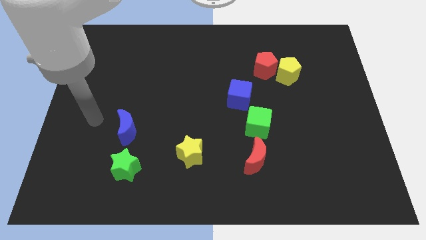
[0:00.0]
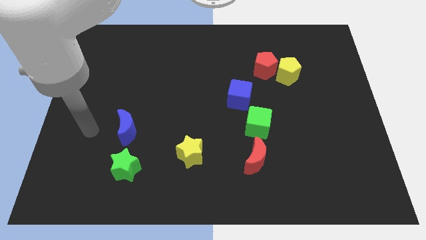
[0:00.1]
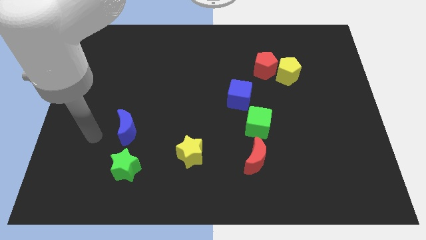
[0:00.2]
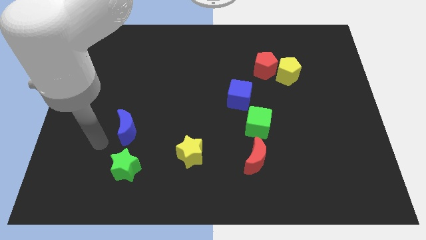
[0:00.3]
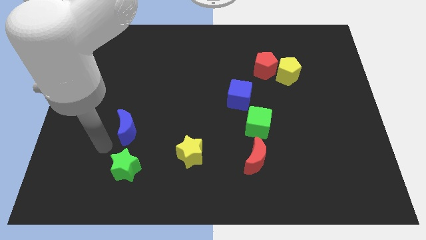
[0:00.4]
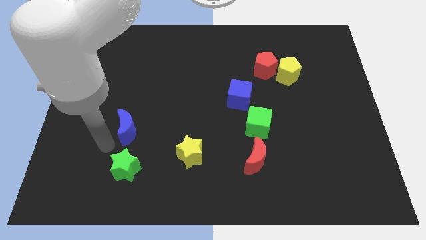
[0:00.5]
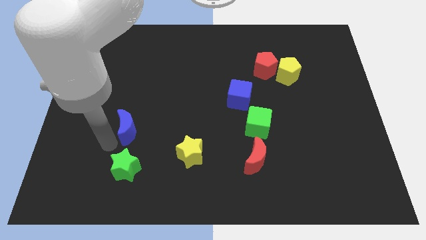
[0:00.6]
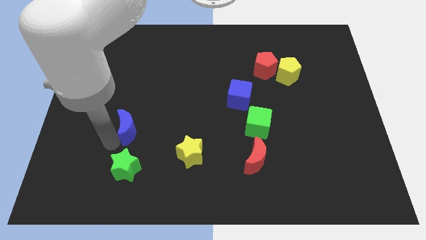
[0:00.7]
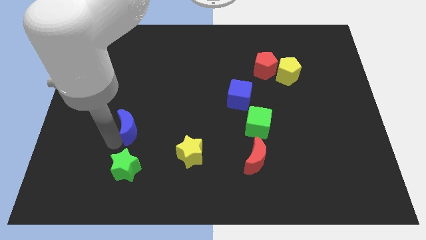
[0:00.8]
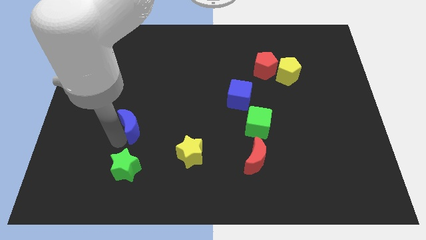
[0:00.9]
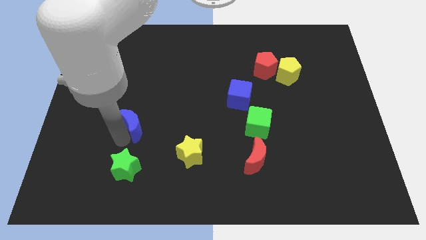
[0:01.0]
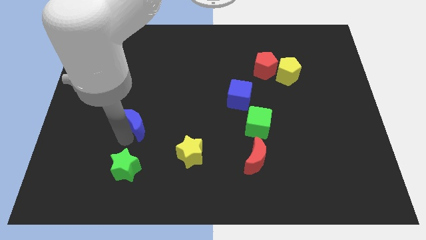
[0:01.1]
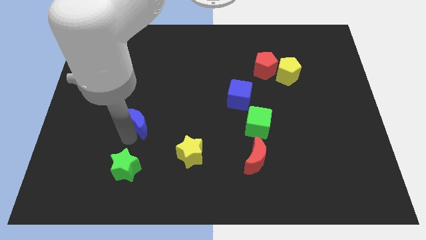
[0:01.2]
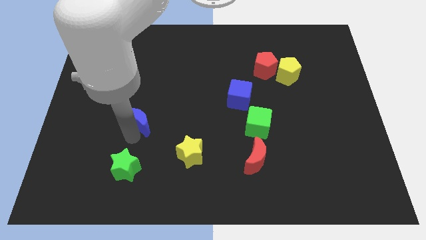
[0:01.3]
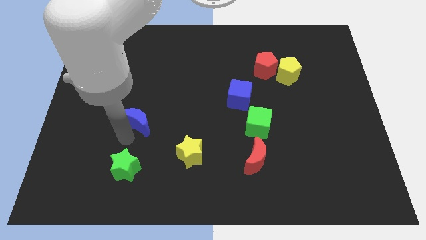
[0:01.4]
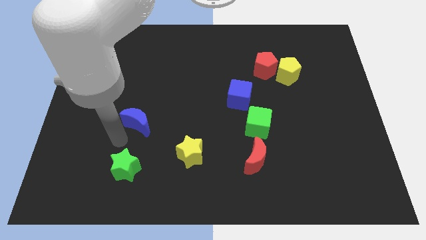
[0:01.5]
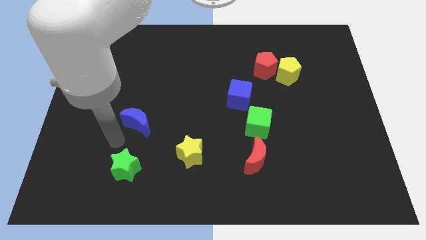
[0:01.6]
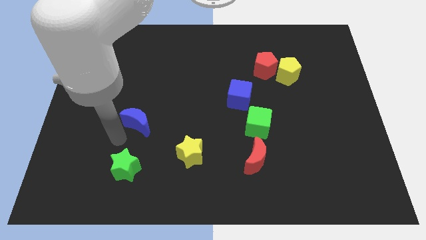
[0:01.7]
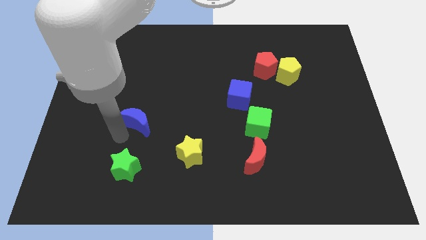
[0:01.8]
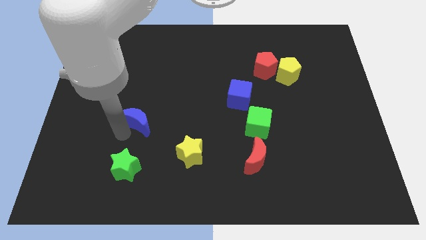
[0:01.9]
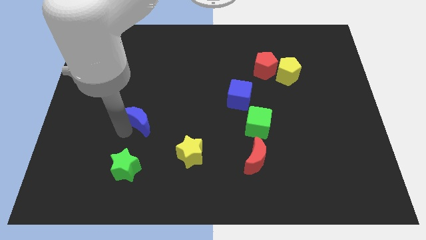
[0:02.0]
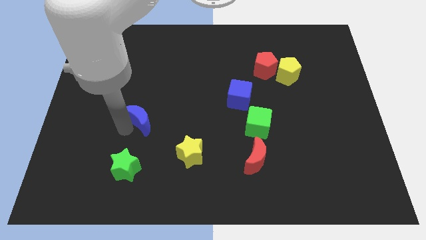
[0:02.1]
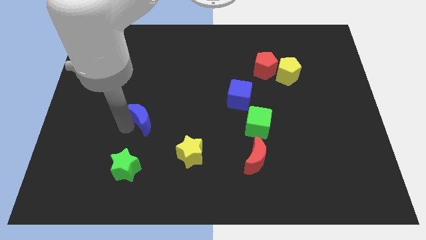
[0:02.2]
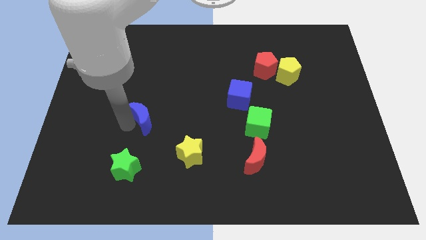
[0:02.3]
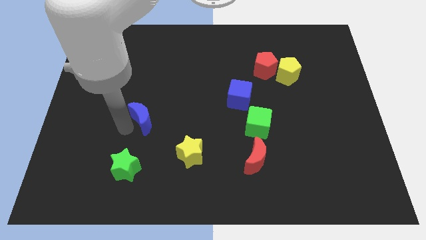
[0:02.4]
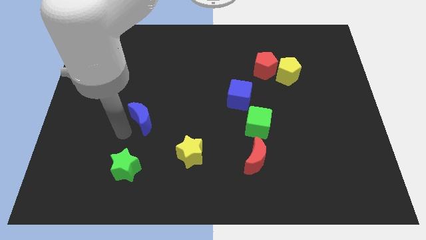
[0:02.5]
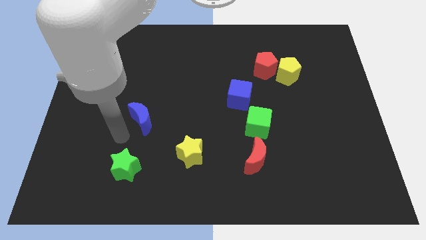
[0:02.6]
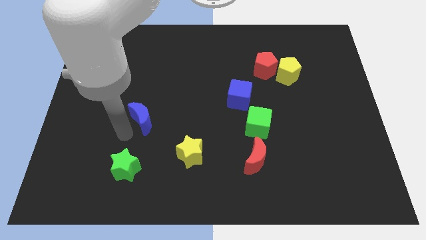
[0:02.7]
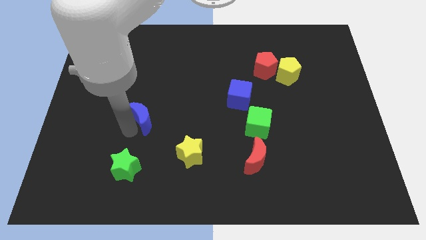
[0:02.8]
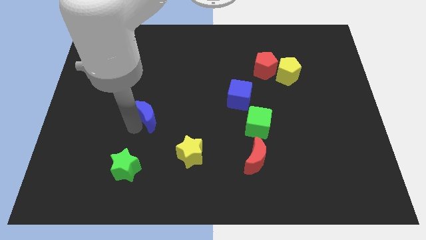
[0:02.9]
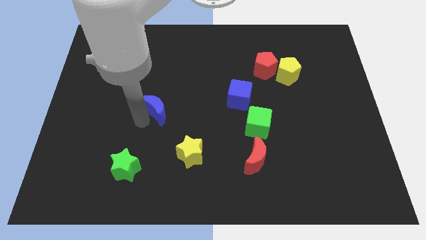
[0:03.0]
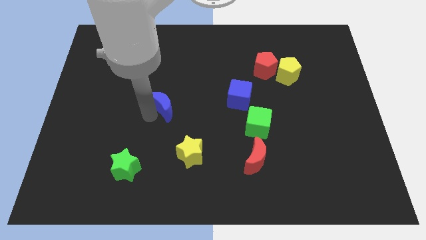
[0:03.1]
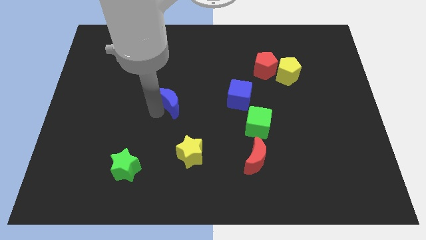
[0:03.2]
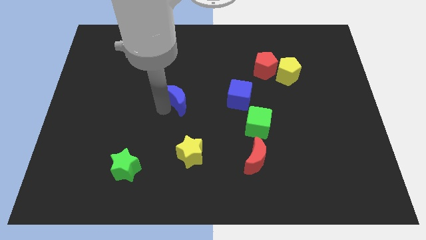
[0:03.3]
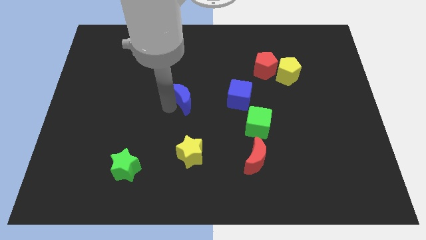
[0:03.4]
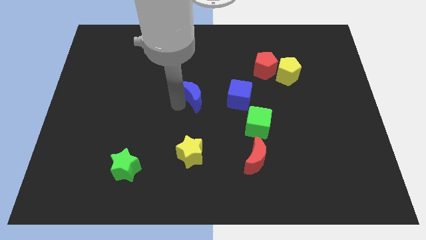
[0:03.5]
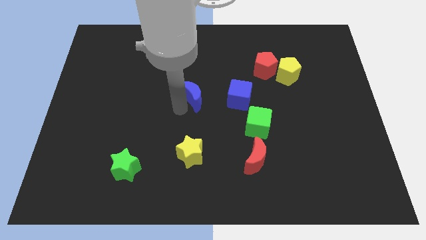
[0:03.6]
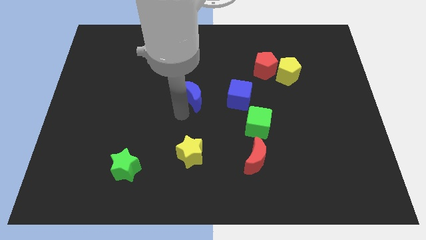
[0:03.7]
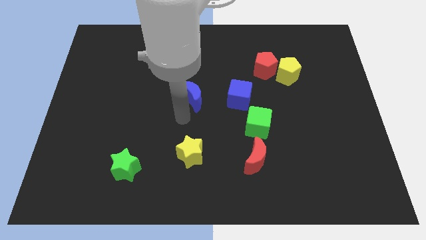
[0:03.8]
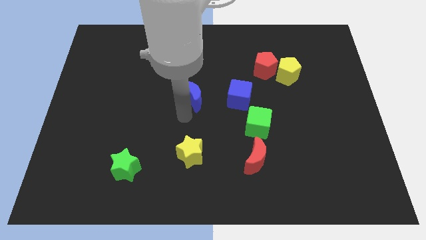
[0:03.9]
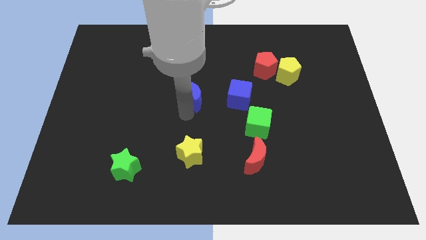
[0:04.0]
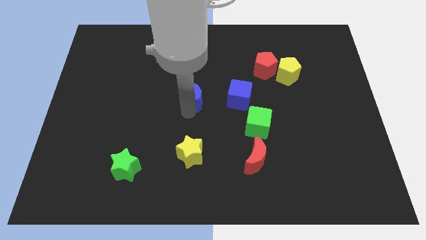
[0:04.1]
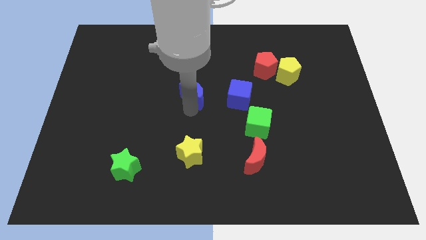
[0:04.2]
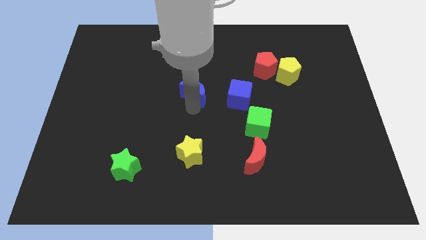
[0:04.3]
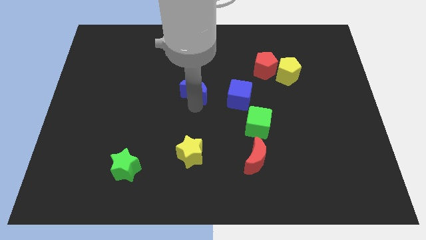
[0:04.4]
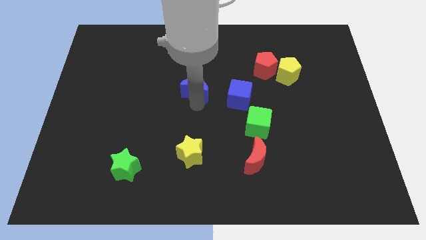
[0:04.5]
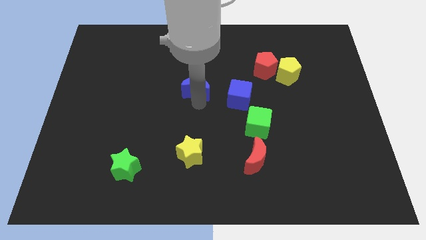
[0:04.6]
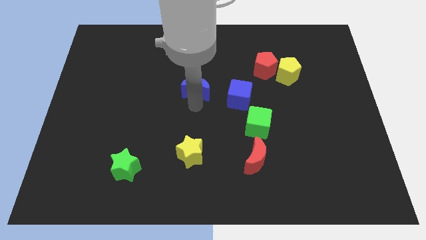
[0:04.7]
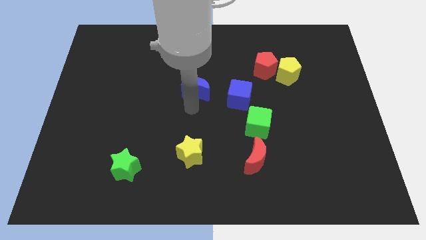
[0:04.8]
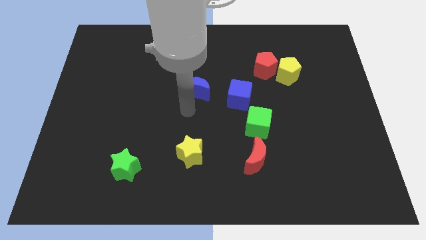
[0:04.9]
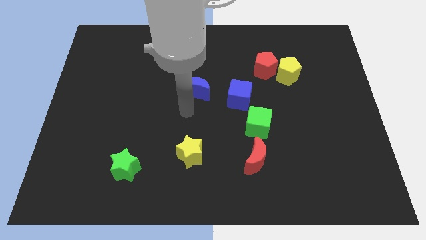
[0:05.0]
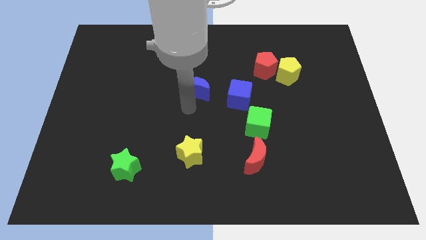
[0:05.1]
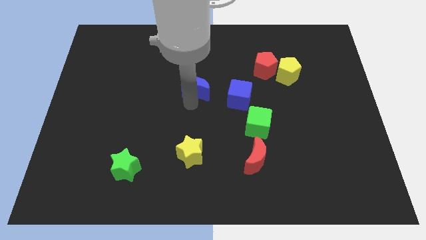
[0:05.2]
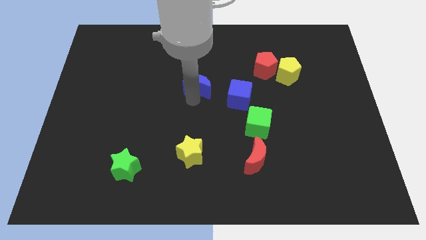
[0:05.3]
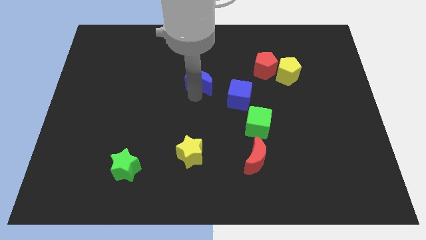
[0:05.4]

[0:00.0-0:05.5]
push the blue moon up and then to the right

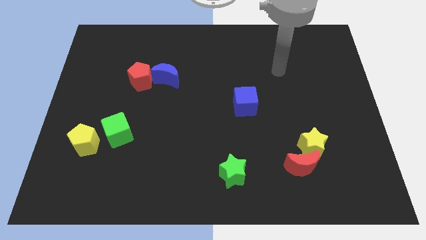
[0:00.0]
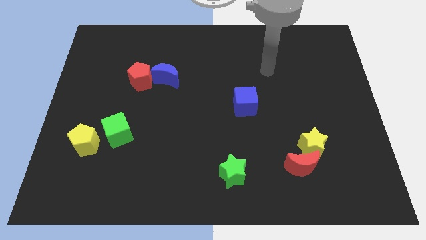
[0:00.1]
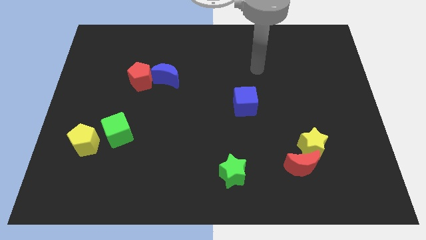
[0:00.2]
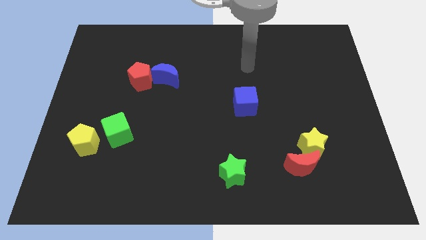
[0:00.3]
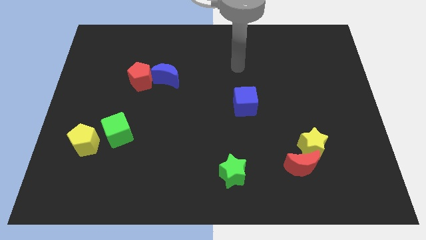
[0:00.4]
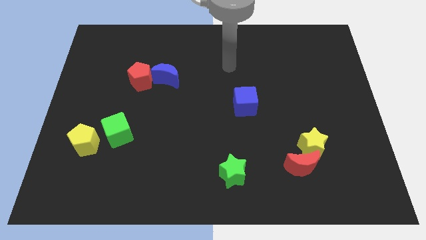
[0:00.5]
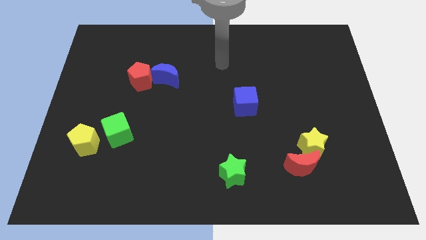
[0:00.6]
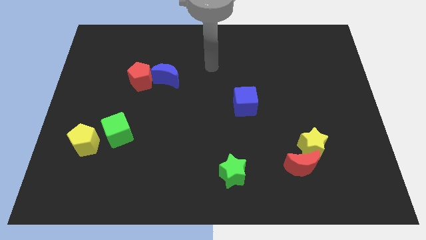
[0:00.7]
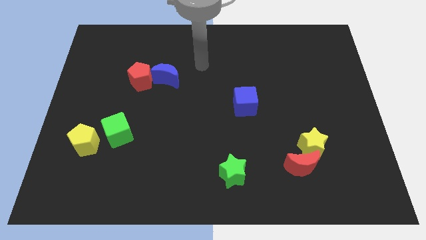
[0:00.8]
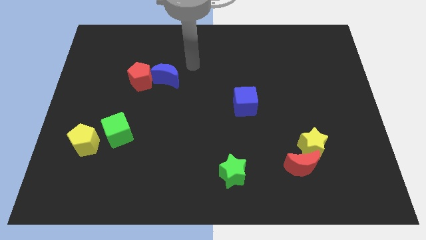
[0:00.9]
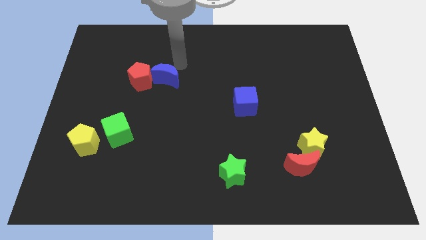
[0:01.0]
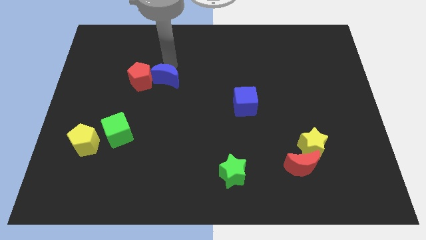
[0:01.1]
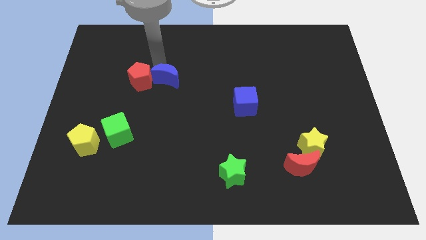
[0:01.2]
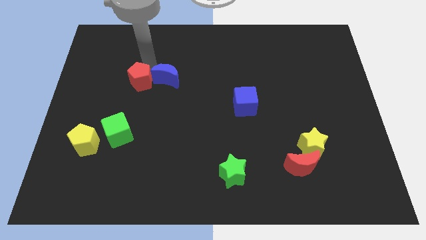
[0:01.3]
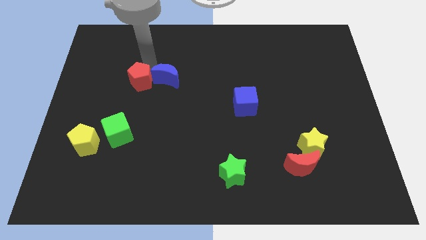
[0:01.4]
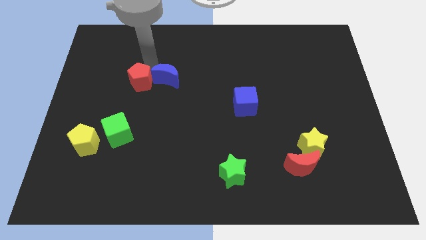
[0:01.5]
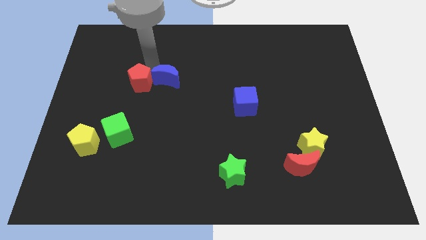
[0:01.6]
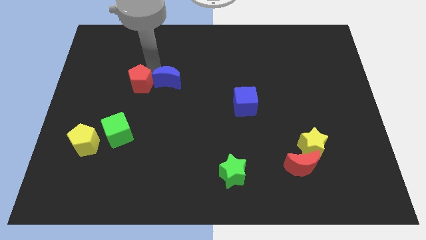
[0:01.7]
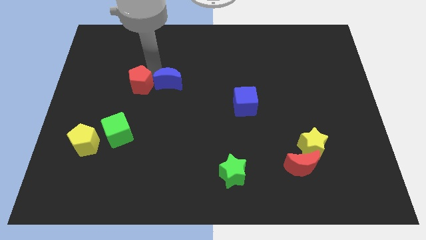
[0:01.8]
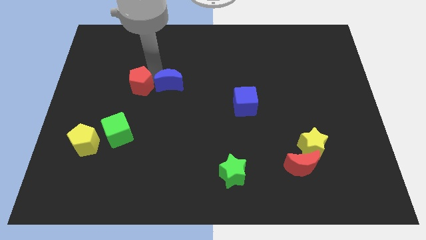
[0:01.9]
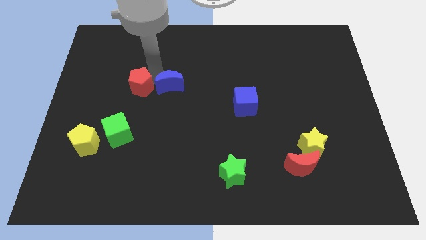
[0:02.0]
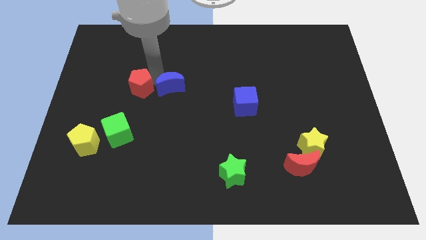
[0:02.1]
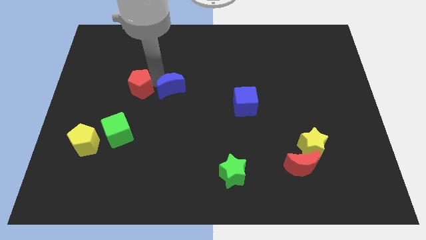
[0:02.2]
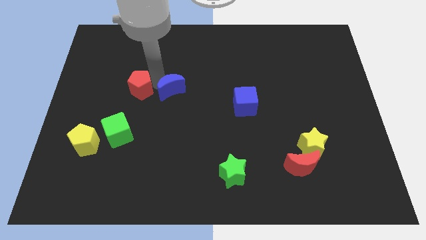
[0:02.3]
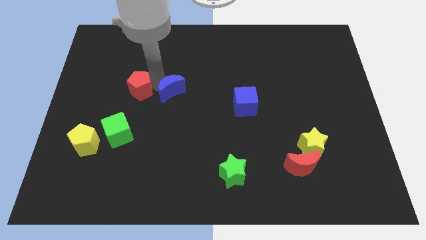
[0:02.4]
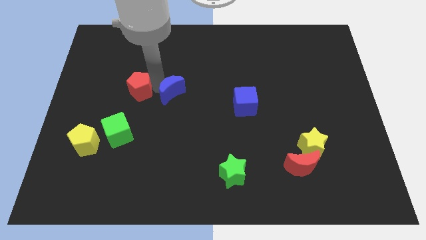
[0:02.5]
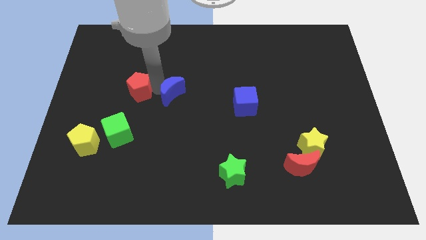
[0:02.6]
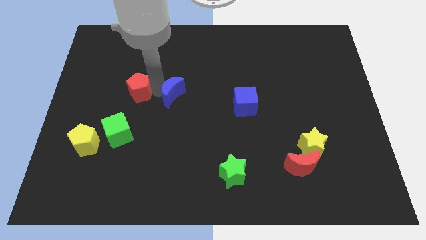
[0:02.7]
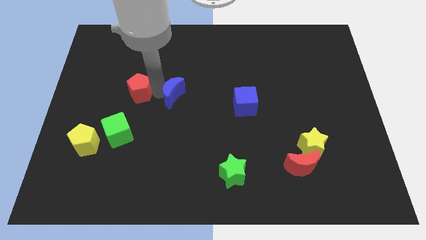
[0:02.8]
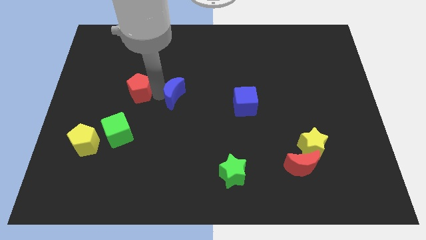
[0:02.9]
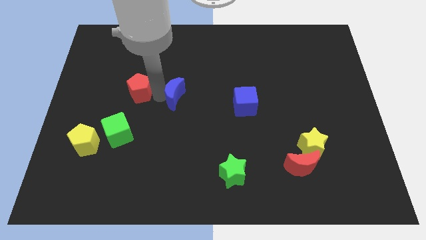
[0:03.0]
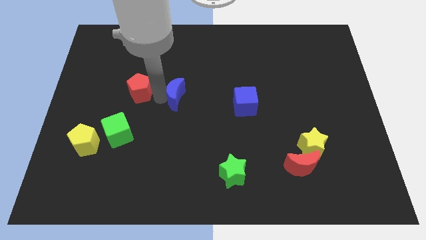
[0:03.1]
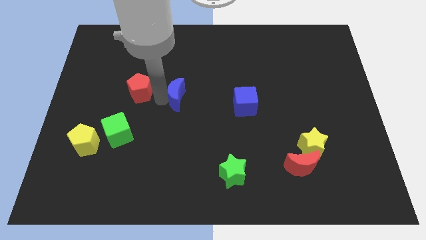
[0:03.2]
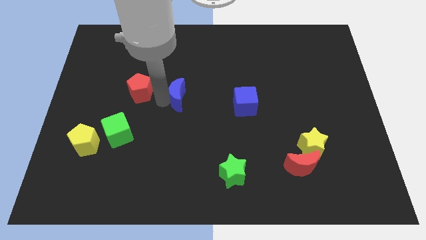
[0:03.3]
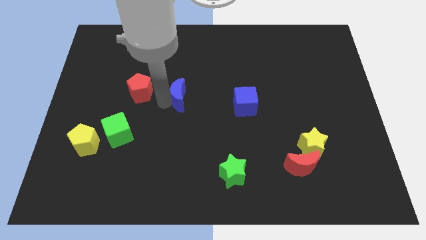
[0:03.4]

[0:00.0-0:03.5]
slightly move the blue moon downwards and then to the right
